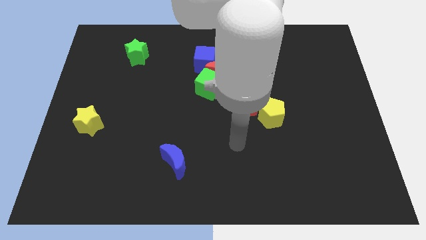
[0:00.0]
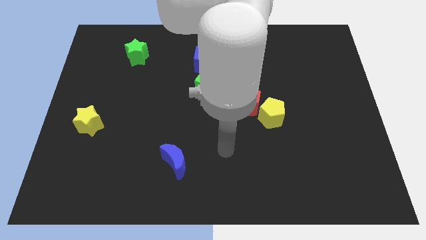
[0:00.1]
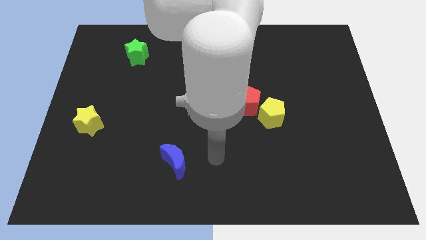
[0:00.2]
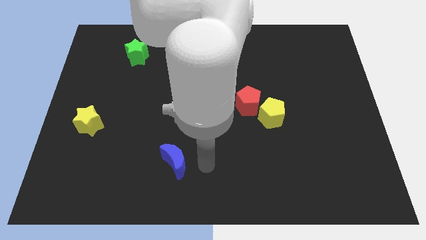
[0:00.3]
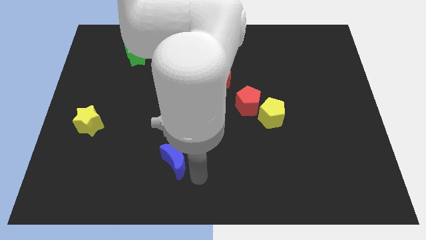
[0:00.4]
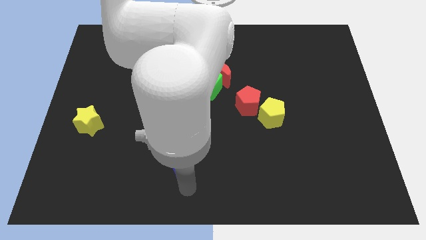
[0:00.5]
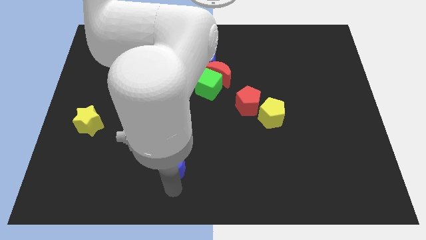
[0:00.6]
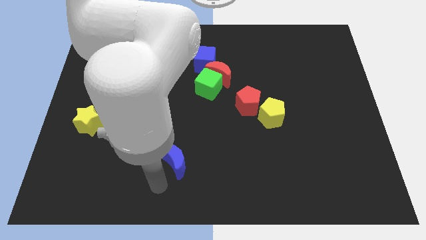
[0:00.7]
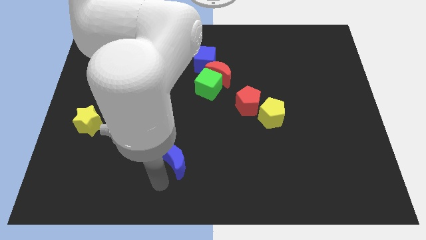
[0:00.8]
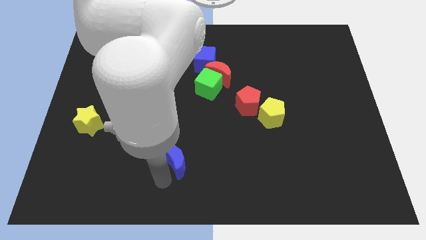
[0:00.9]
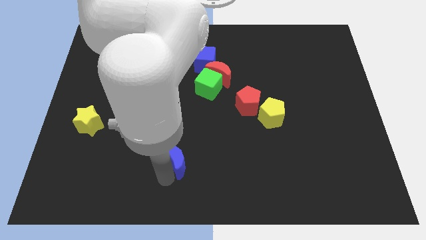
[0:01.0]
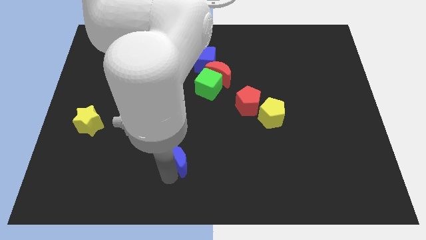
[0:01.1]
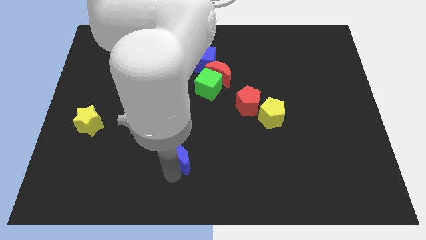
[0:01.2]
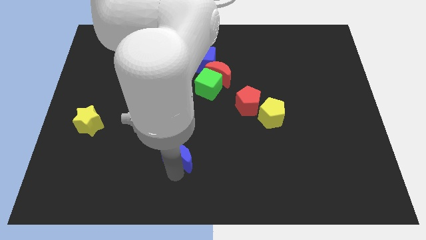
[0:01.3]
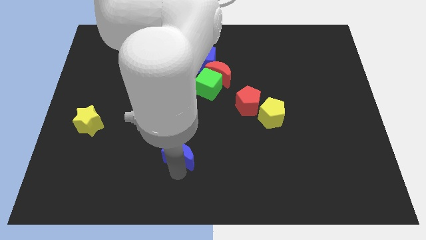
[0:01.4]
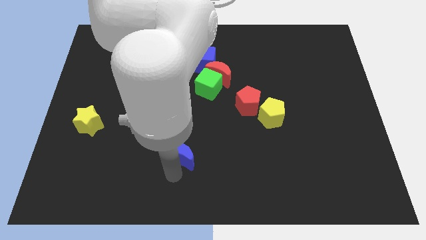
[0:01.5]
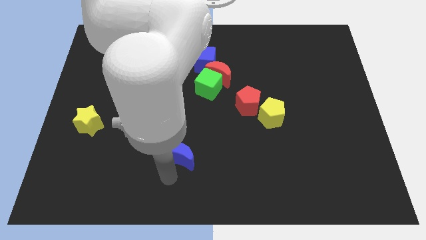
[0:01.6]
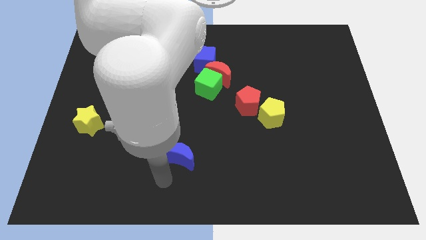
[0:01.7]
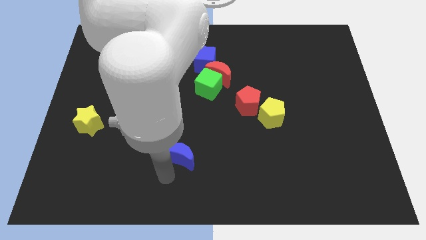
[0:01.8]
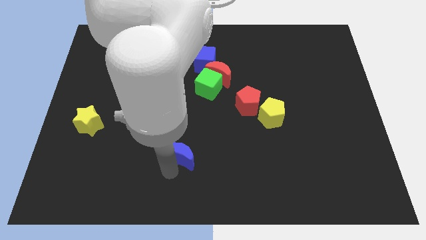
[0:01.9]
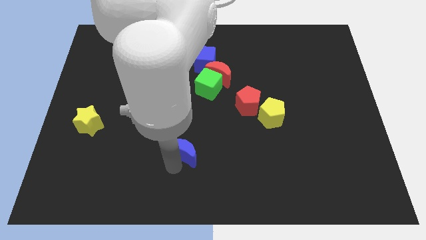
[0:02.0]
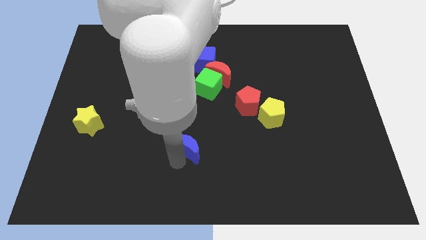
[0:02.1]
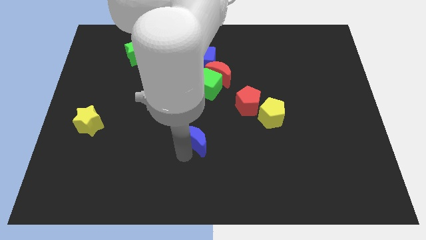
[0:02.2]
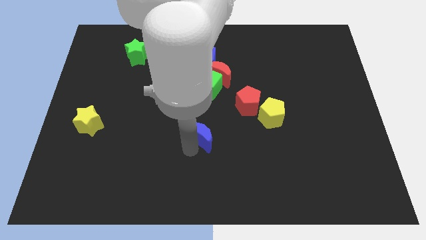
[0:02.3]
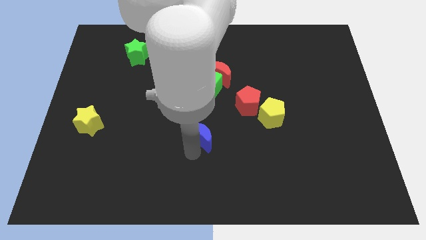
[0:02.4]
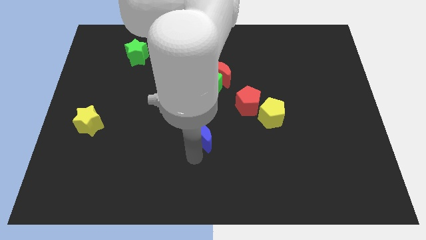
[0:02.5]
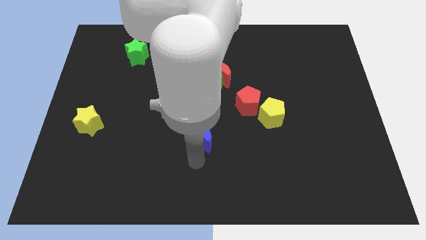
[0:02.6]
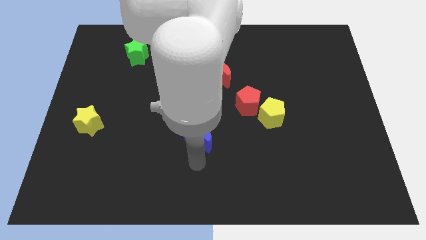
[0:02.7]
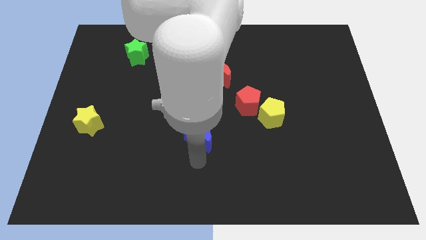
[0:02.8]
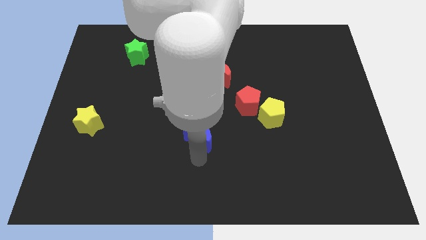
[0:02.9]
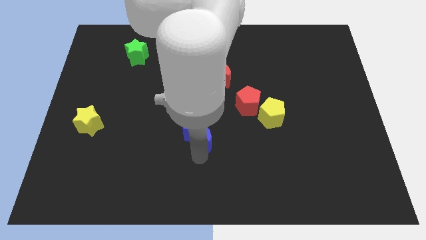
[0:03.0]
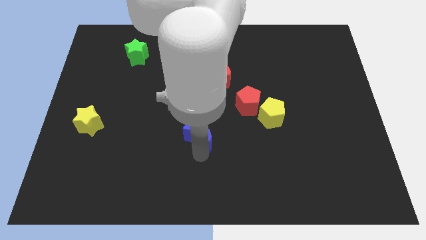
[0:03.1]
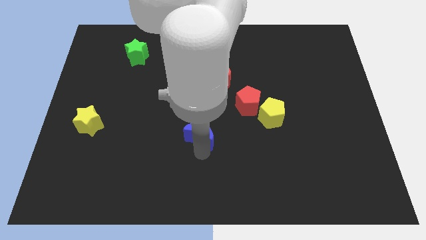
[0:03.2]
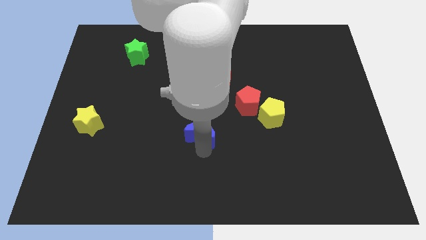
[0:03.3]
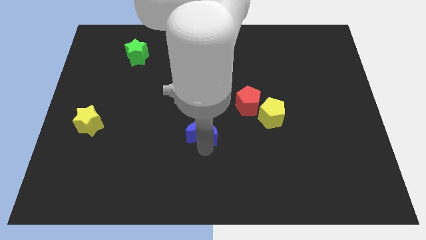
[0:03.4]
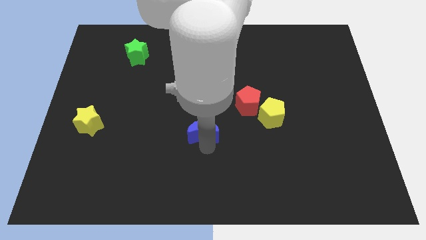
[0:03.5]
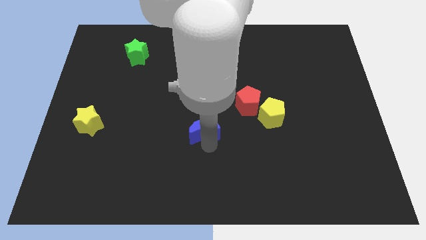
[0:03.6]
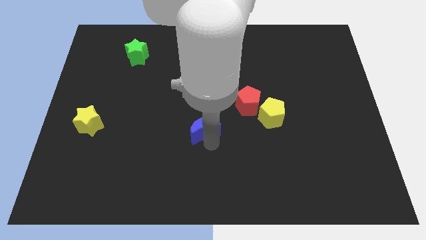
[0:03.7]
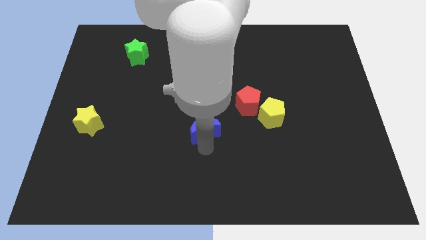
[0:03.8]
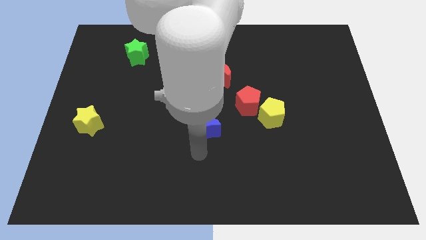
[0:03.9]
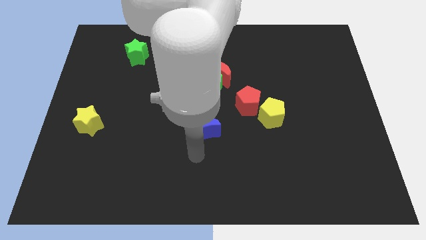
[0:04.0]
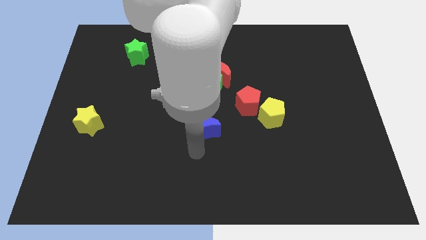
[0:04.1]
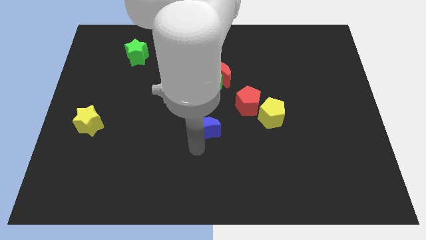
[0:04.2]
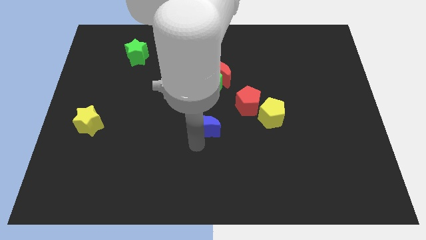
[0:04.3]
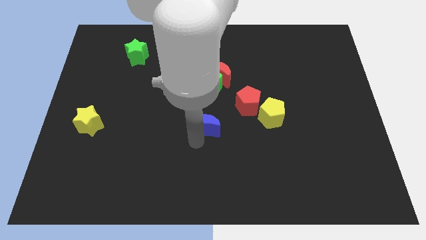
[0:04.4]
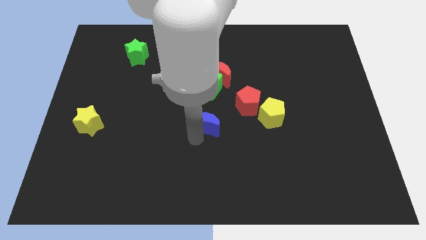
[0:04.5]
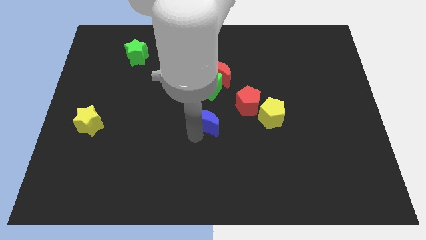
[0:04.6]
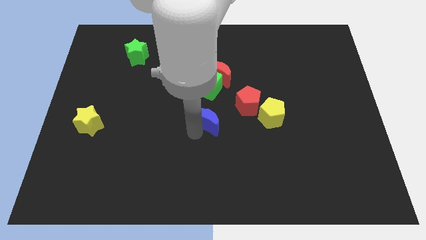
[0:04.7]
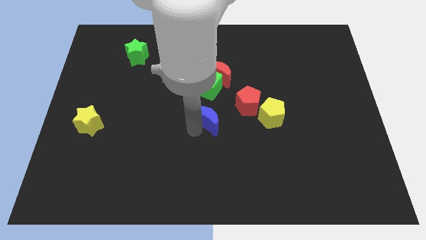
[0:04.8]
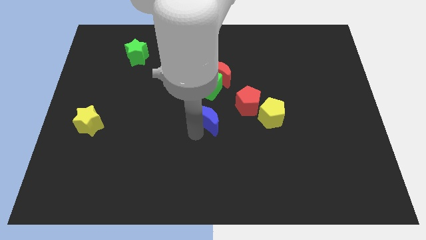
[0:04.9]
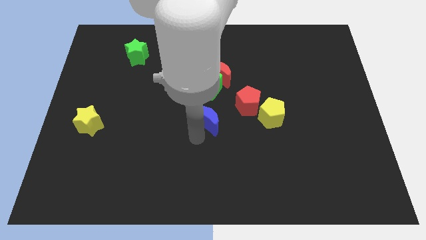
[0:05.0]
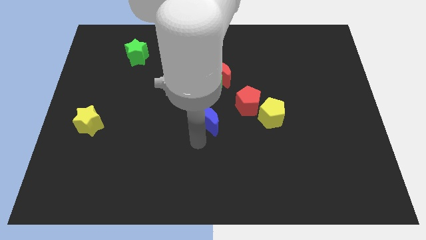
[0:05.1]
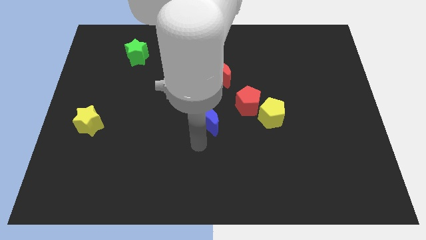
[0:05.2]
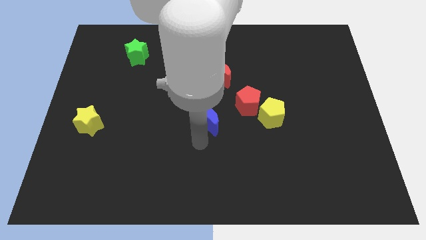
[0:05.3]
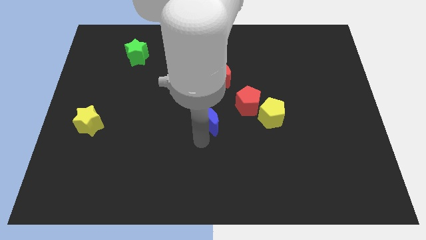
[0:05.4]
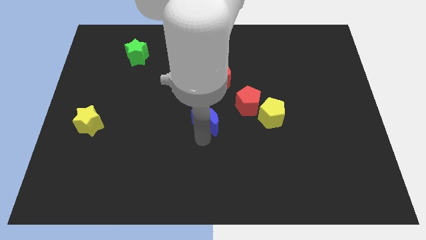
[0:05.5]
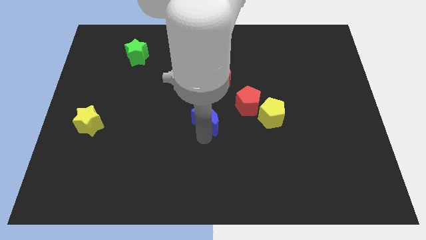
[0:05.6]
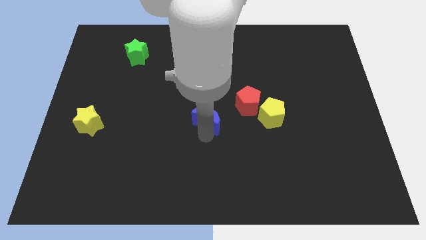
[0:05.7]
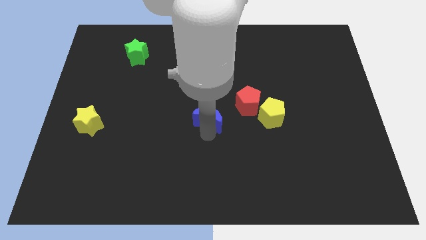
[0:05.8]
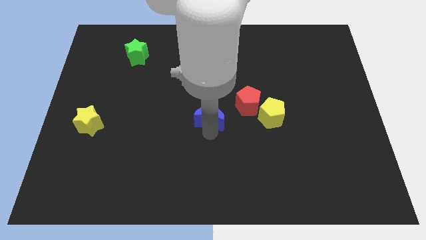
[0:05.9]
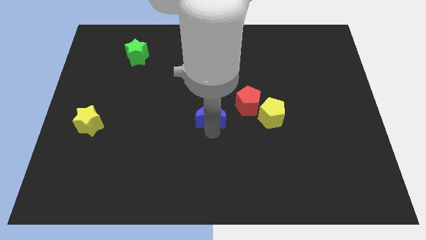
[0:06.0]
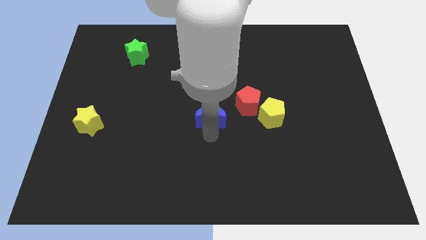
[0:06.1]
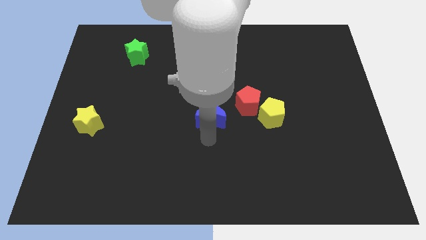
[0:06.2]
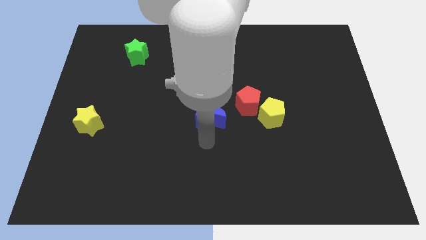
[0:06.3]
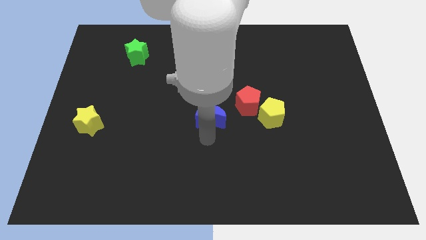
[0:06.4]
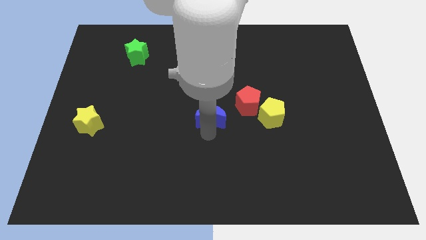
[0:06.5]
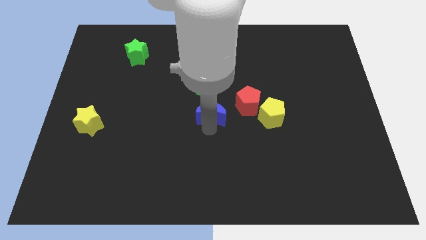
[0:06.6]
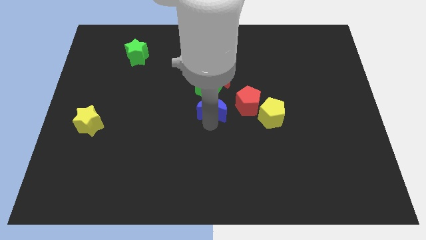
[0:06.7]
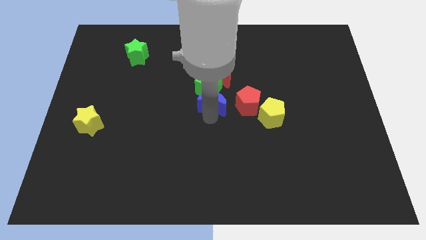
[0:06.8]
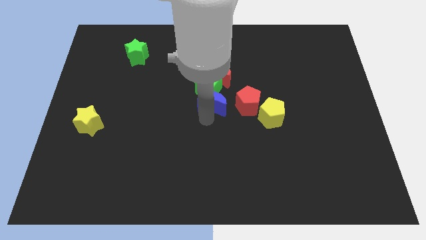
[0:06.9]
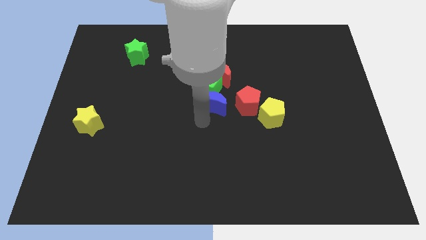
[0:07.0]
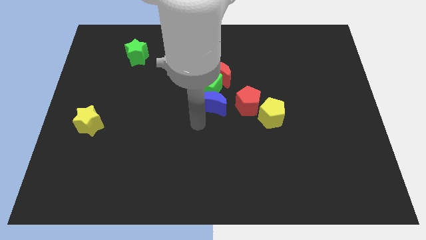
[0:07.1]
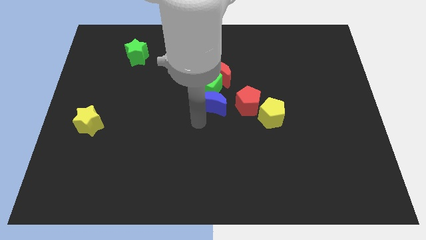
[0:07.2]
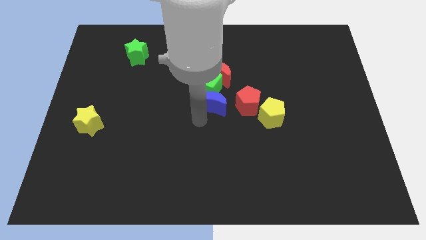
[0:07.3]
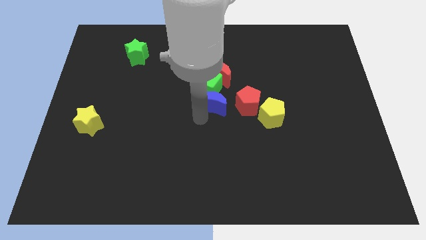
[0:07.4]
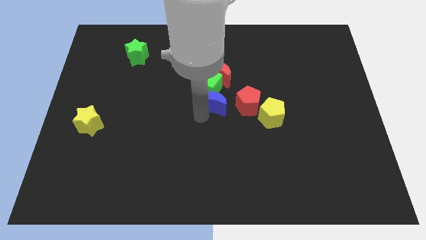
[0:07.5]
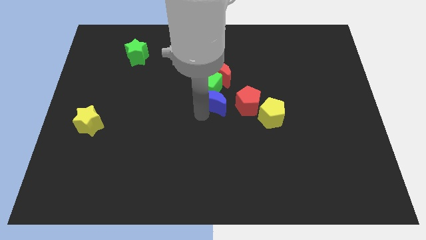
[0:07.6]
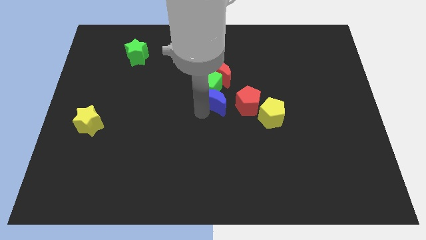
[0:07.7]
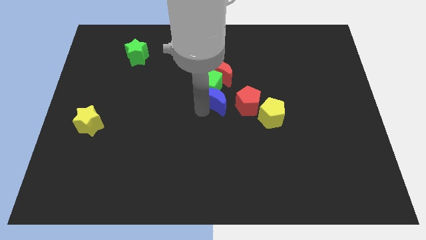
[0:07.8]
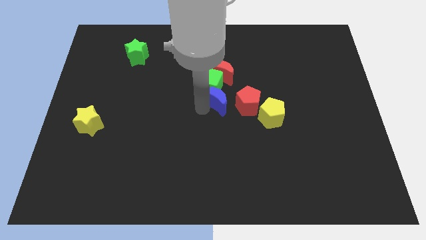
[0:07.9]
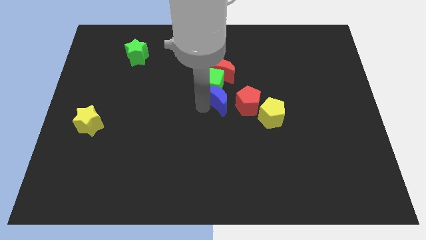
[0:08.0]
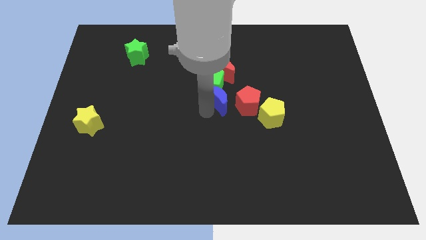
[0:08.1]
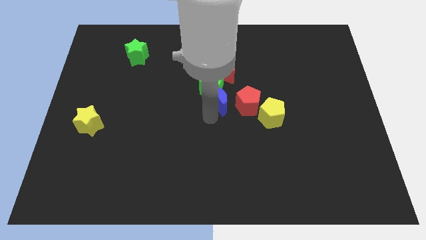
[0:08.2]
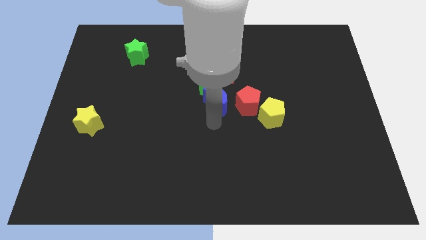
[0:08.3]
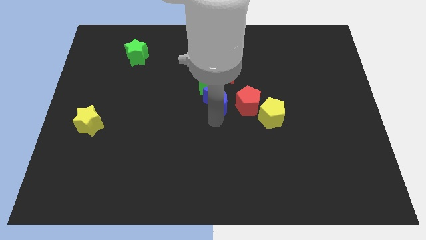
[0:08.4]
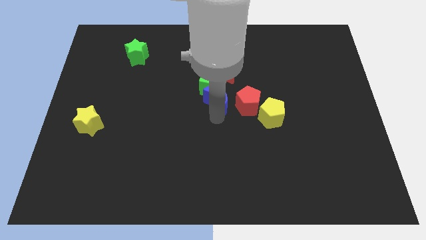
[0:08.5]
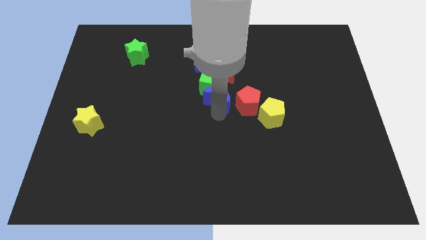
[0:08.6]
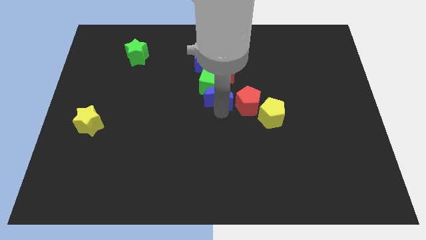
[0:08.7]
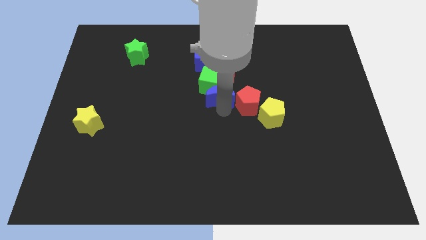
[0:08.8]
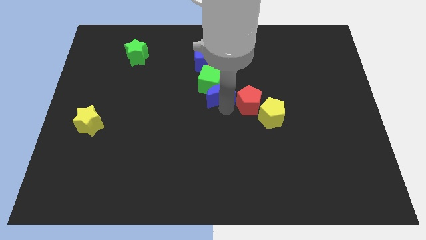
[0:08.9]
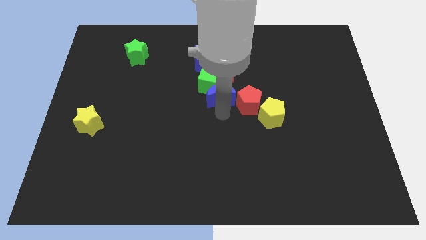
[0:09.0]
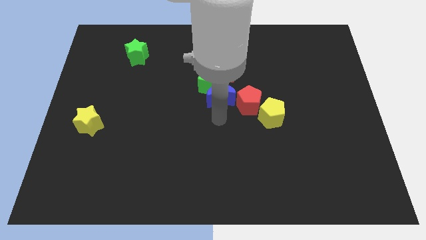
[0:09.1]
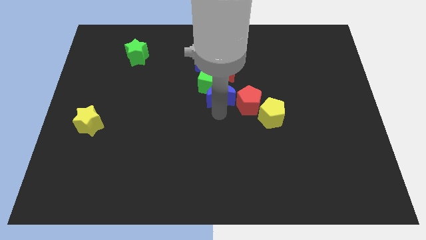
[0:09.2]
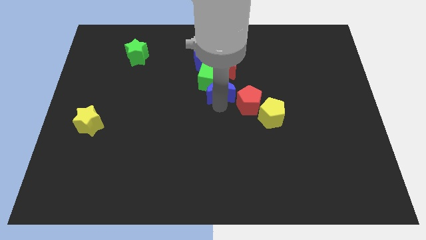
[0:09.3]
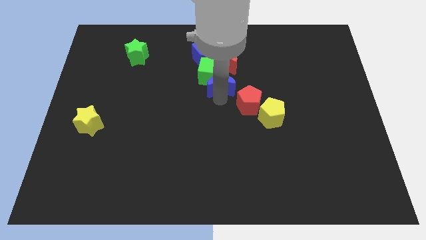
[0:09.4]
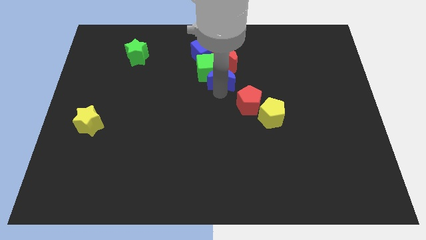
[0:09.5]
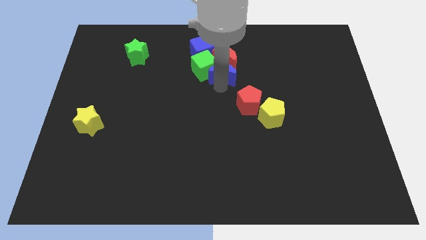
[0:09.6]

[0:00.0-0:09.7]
move the blue moon to the red moon
